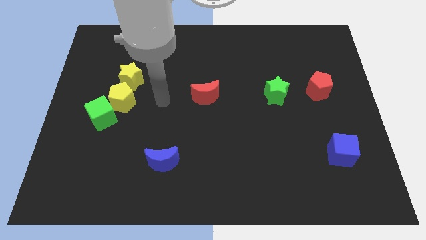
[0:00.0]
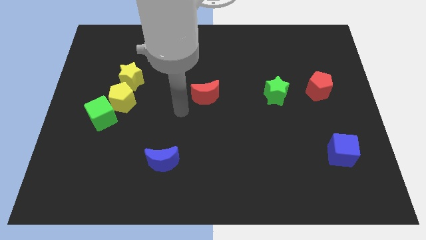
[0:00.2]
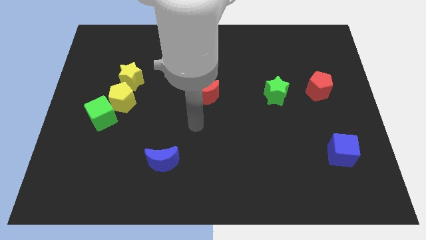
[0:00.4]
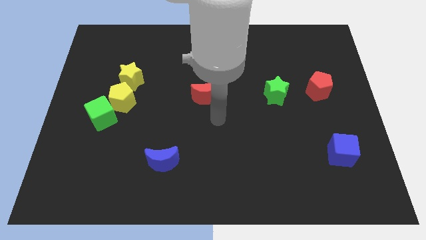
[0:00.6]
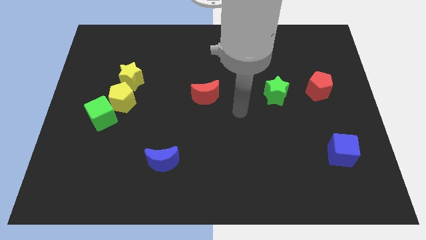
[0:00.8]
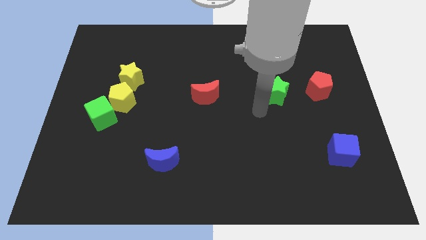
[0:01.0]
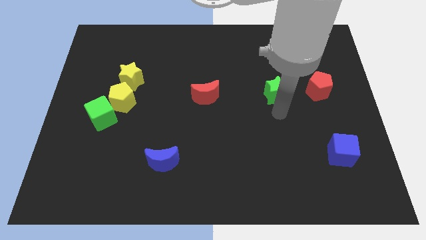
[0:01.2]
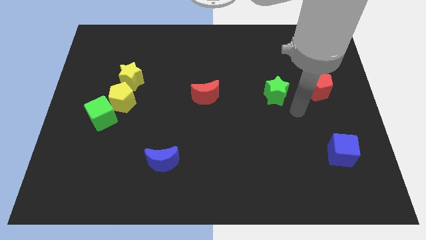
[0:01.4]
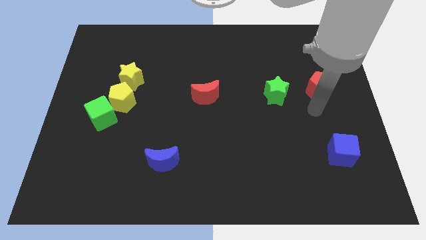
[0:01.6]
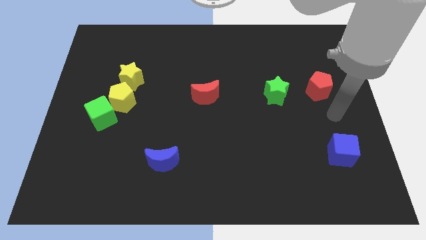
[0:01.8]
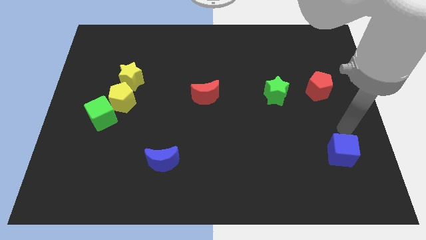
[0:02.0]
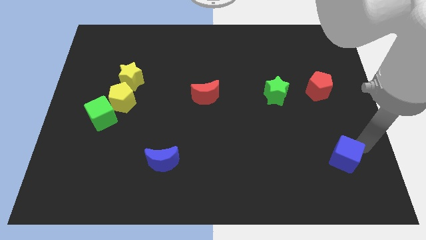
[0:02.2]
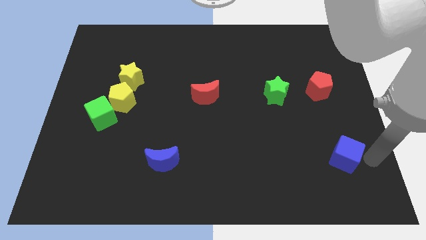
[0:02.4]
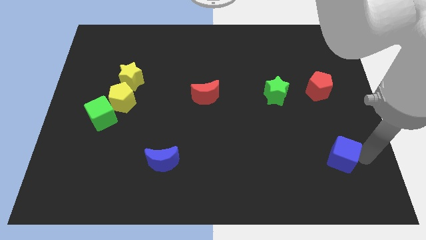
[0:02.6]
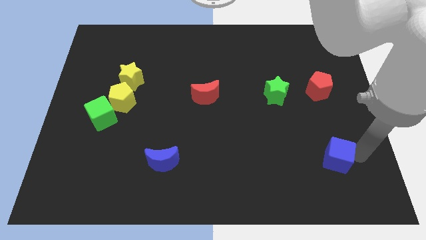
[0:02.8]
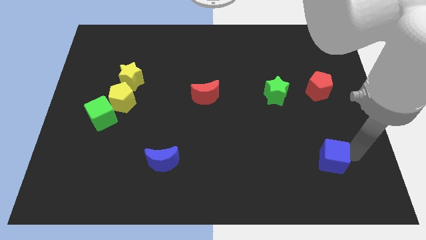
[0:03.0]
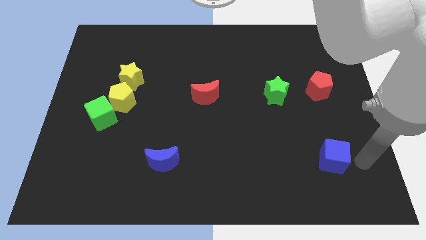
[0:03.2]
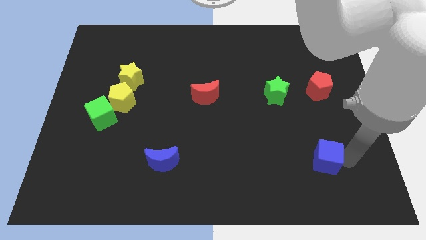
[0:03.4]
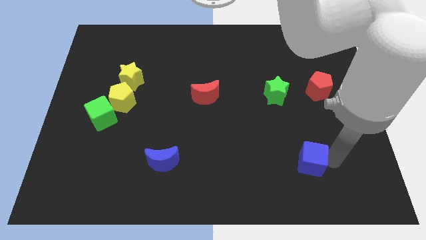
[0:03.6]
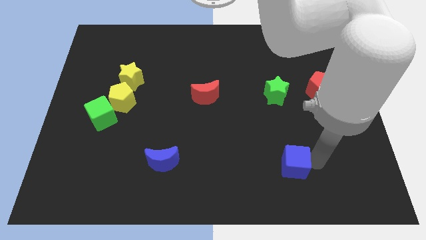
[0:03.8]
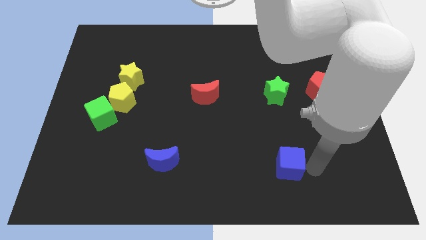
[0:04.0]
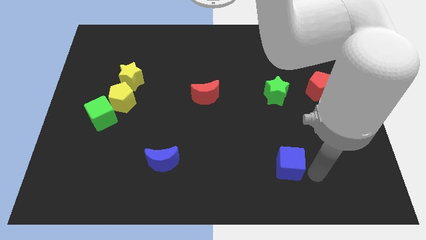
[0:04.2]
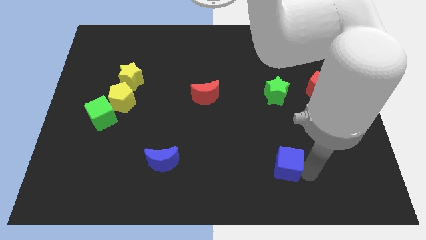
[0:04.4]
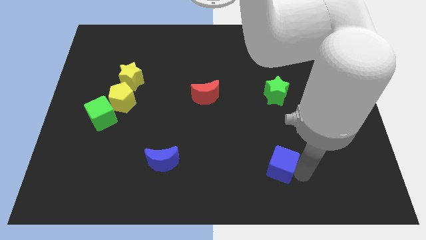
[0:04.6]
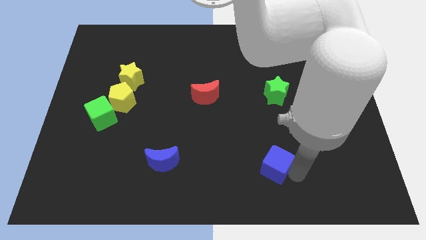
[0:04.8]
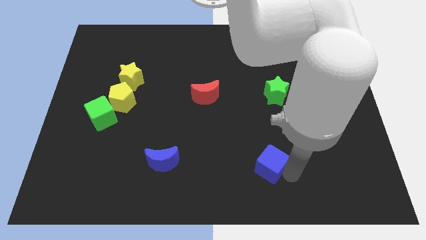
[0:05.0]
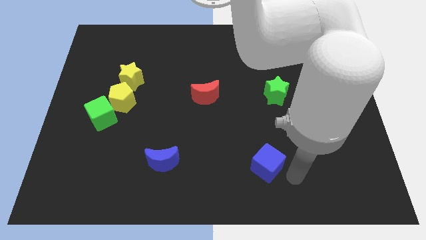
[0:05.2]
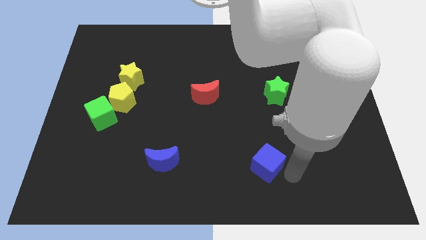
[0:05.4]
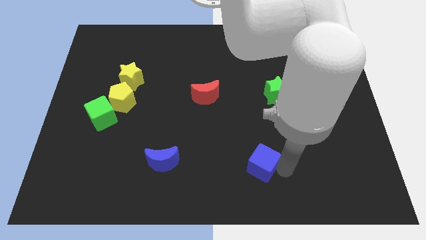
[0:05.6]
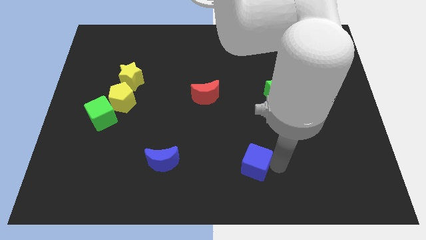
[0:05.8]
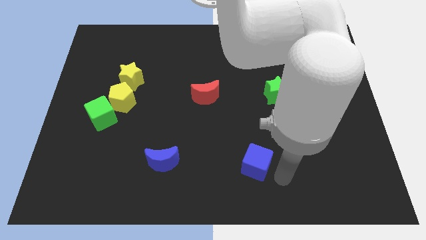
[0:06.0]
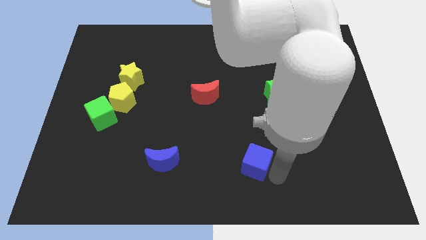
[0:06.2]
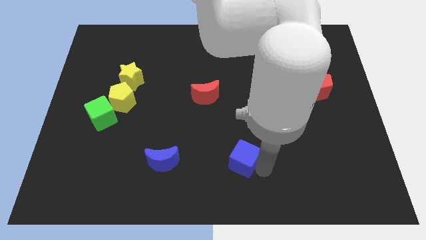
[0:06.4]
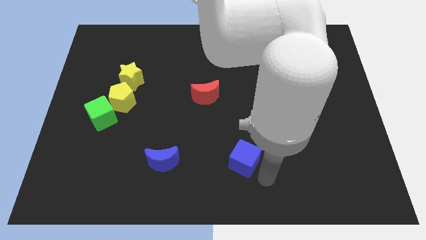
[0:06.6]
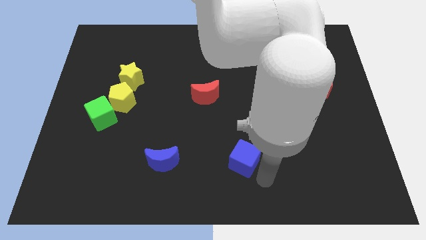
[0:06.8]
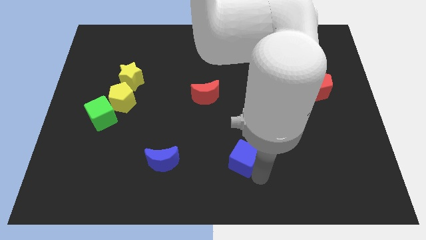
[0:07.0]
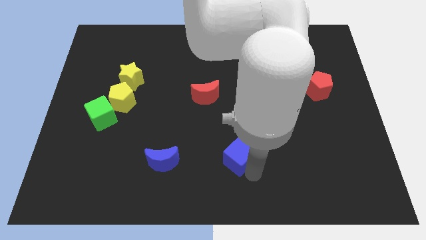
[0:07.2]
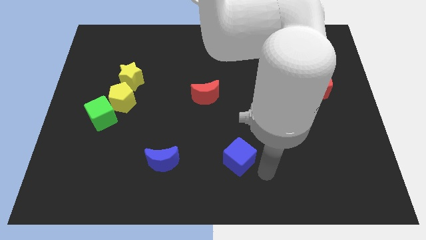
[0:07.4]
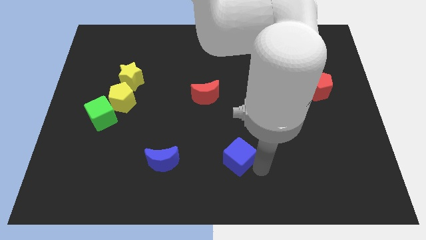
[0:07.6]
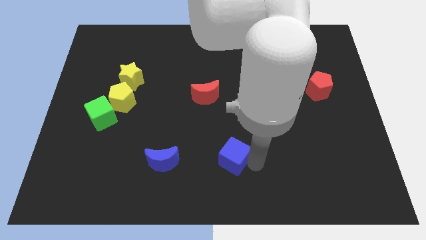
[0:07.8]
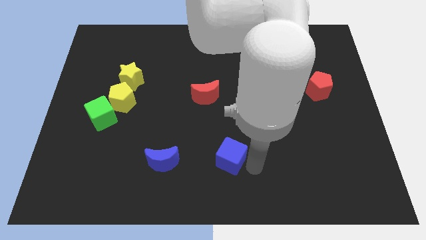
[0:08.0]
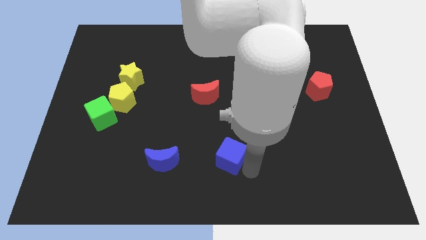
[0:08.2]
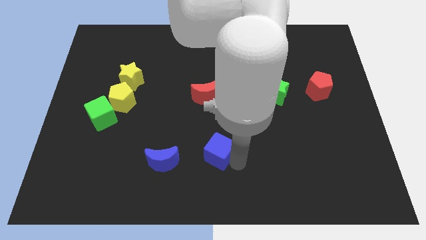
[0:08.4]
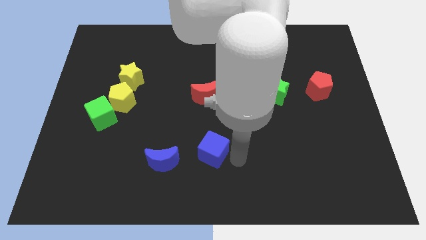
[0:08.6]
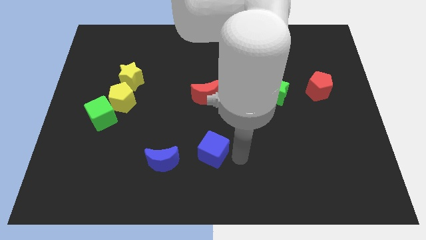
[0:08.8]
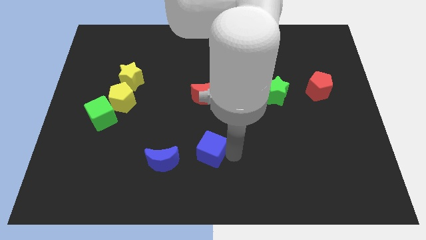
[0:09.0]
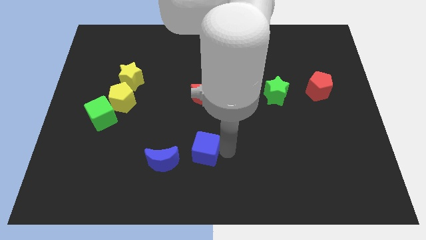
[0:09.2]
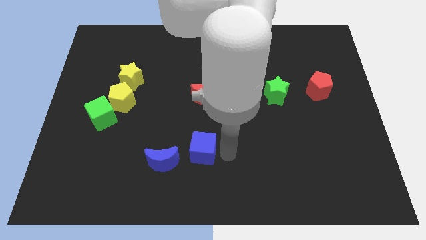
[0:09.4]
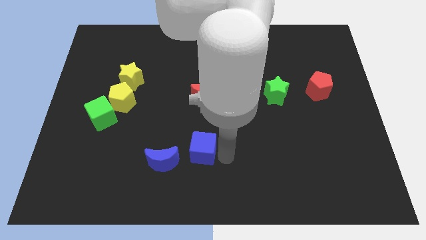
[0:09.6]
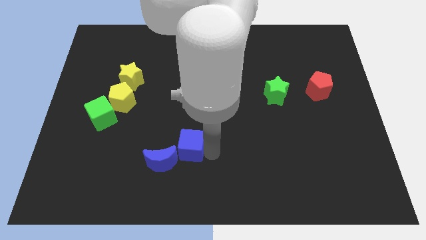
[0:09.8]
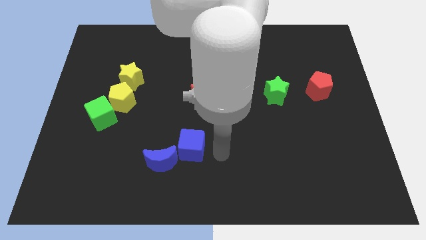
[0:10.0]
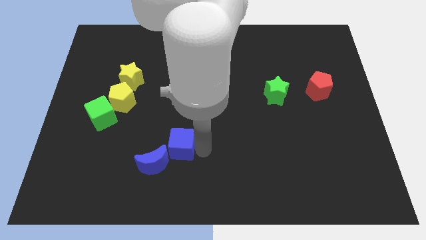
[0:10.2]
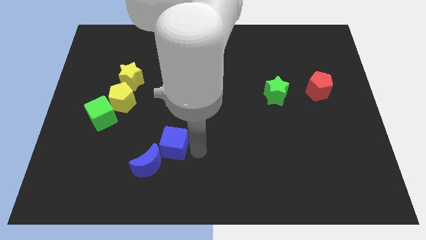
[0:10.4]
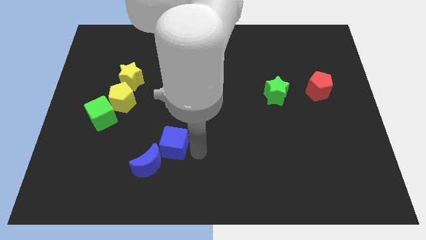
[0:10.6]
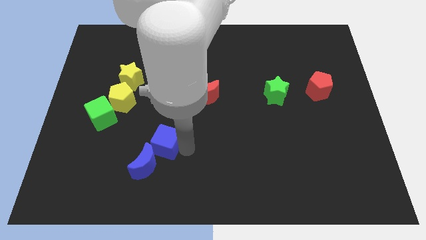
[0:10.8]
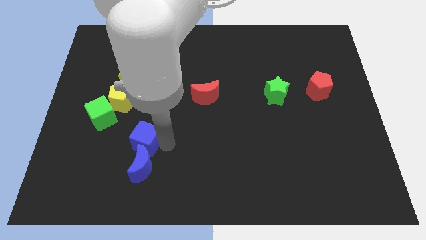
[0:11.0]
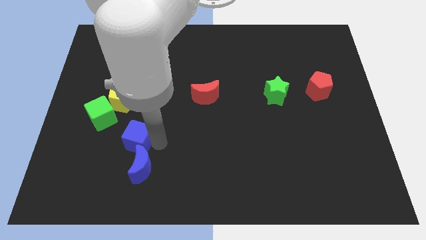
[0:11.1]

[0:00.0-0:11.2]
push the blue cube diagonally down and to the right of the green cube

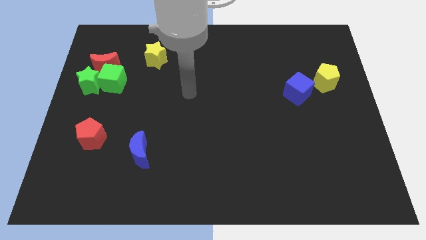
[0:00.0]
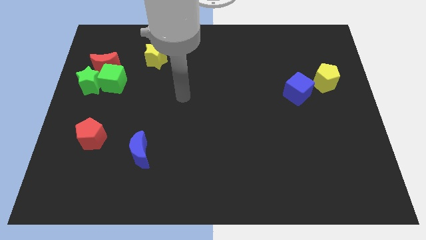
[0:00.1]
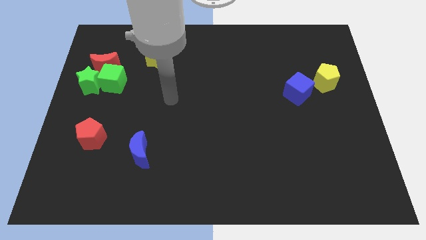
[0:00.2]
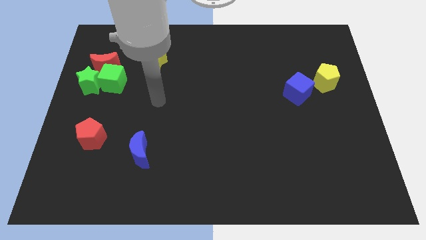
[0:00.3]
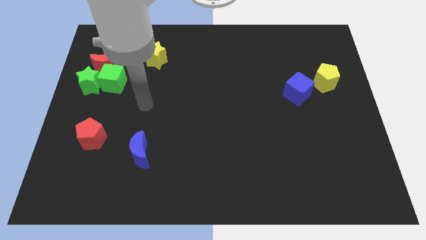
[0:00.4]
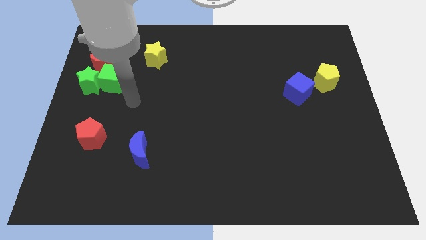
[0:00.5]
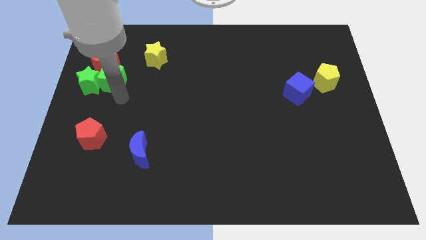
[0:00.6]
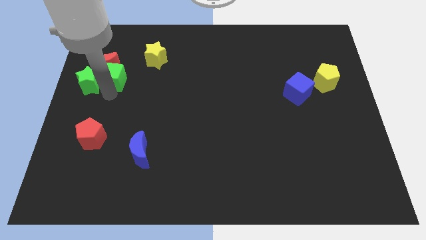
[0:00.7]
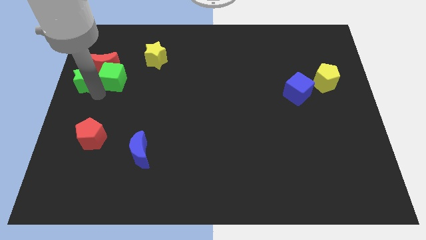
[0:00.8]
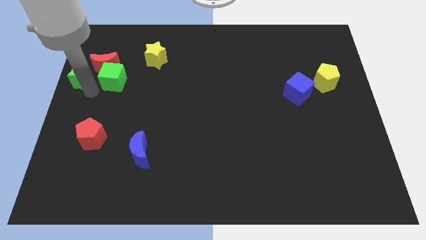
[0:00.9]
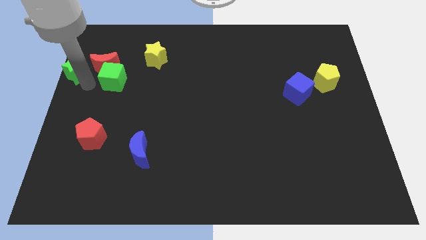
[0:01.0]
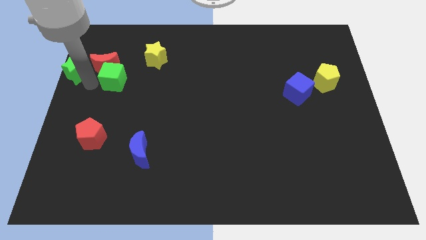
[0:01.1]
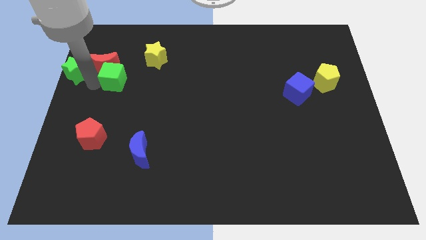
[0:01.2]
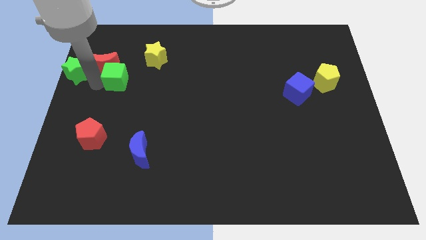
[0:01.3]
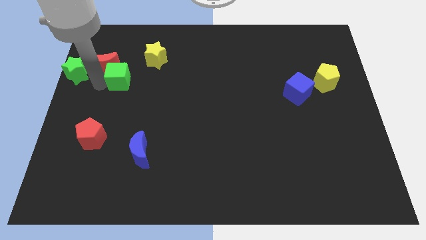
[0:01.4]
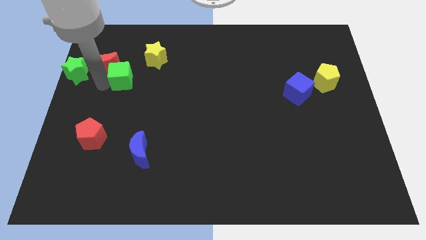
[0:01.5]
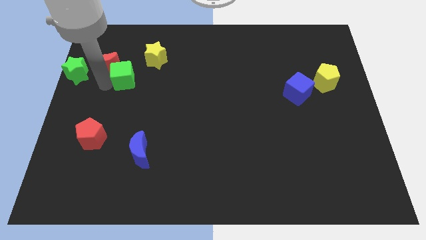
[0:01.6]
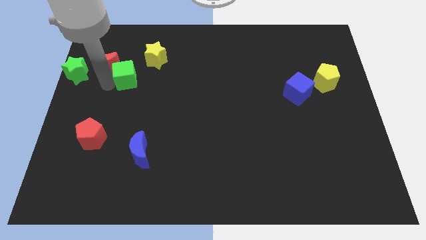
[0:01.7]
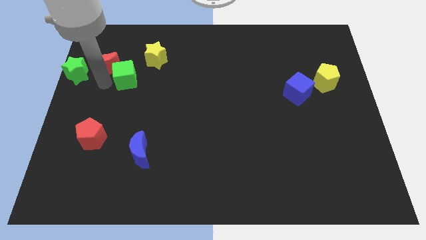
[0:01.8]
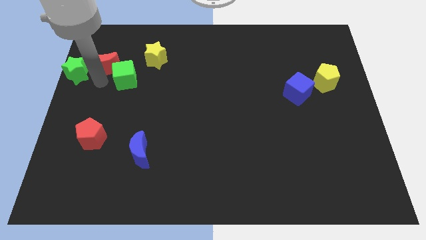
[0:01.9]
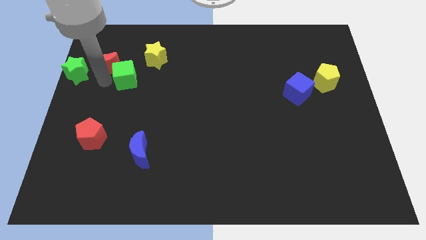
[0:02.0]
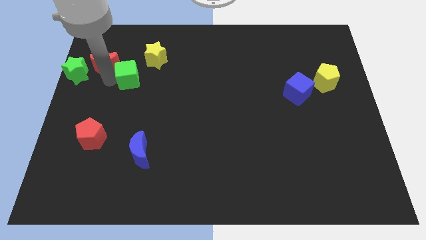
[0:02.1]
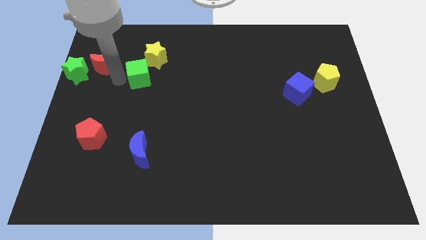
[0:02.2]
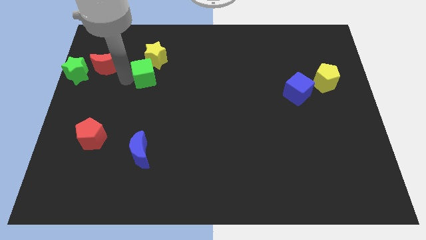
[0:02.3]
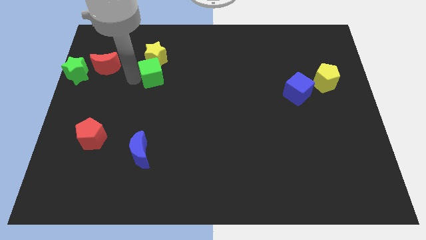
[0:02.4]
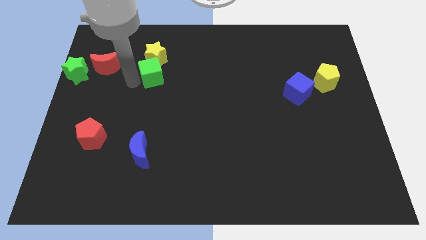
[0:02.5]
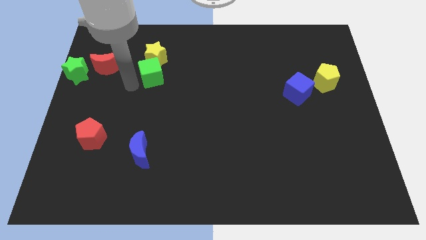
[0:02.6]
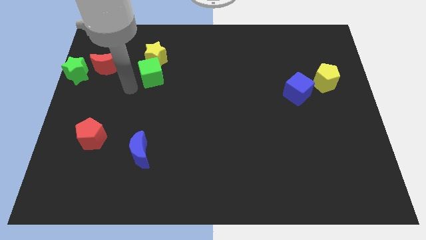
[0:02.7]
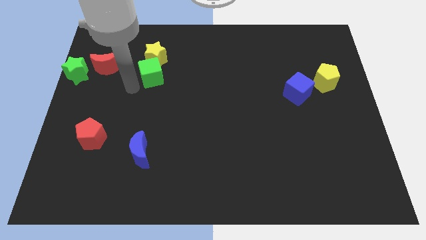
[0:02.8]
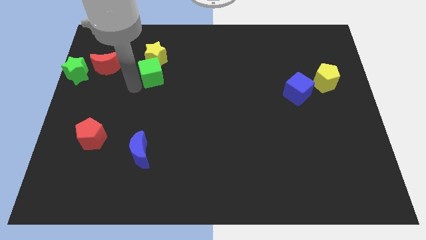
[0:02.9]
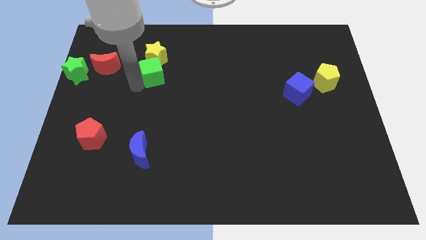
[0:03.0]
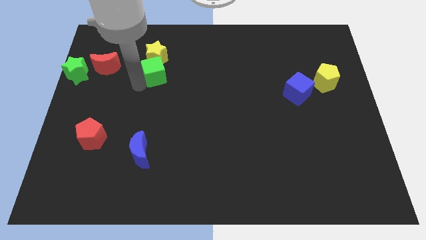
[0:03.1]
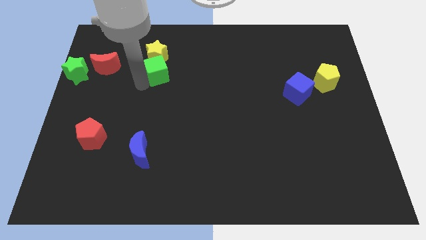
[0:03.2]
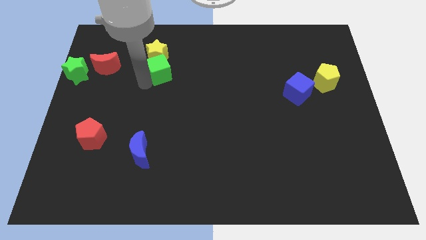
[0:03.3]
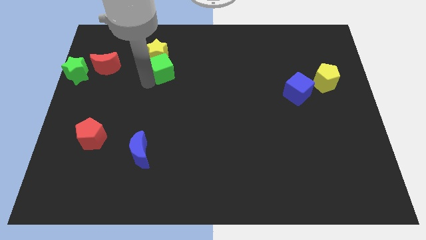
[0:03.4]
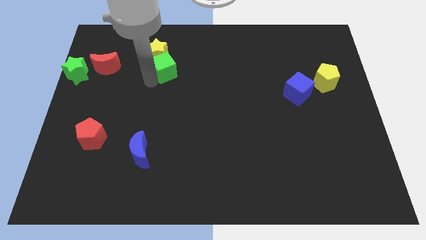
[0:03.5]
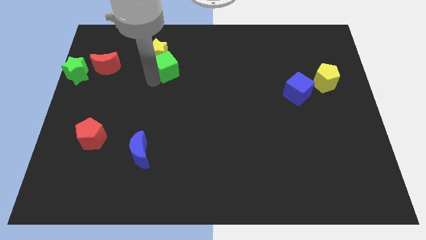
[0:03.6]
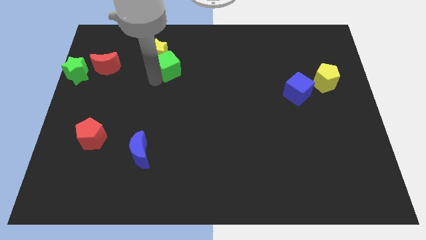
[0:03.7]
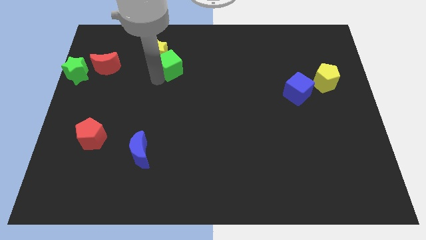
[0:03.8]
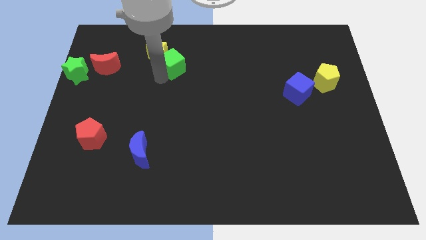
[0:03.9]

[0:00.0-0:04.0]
put the green cube to the right of the yellow star
